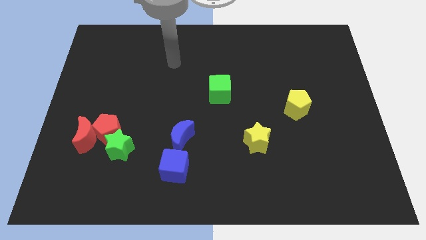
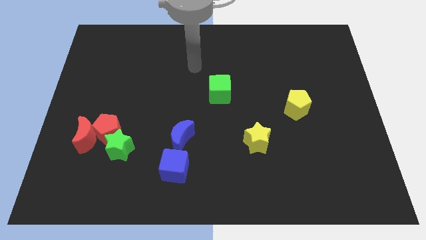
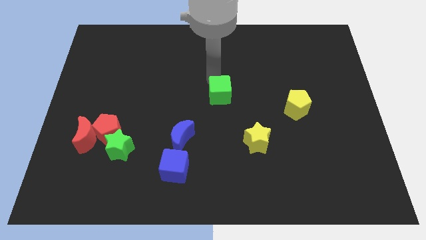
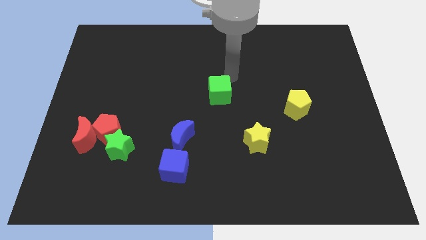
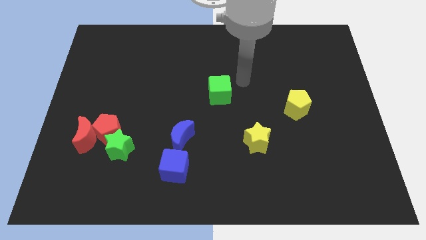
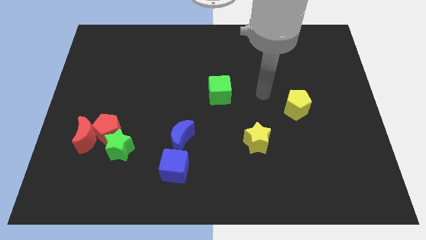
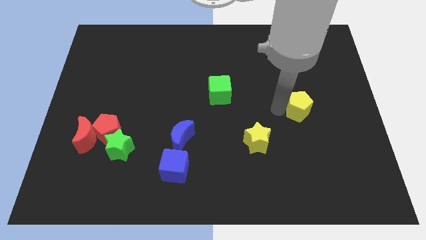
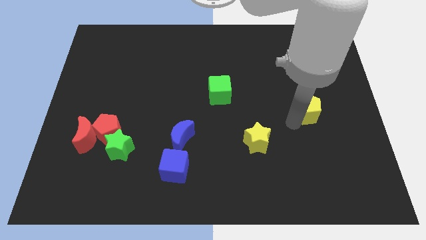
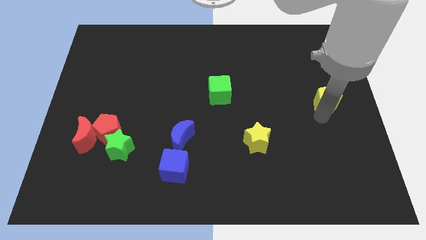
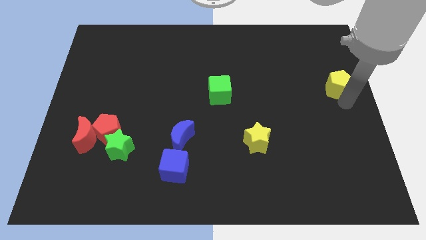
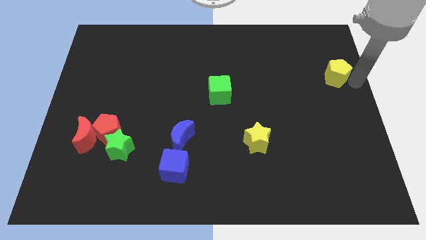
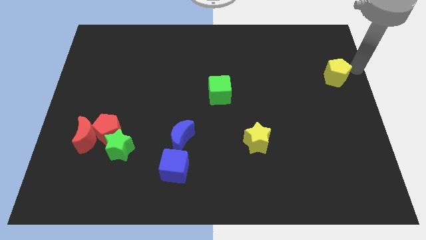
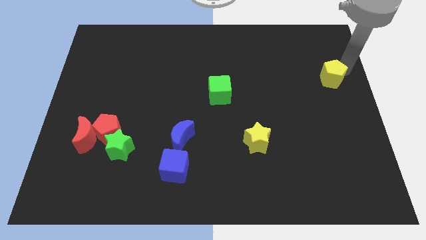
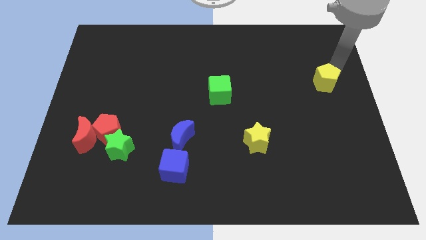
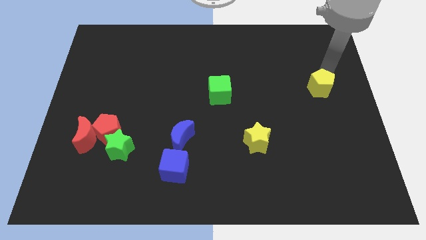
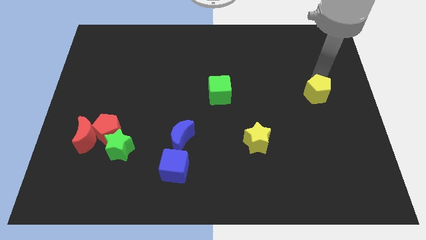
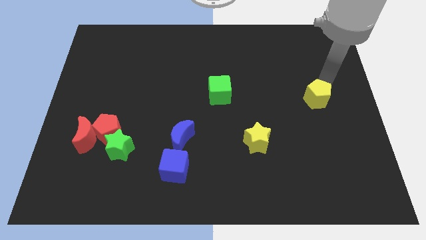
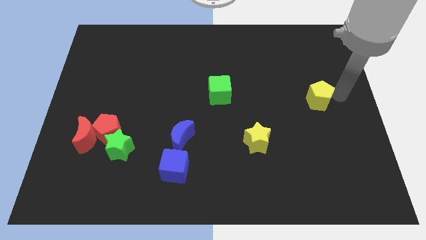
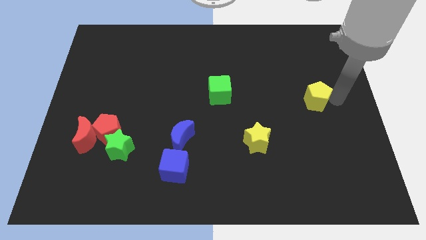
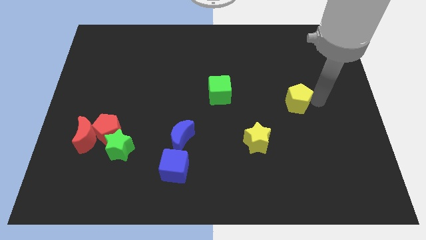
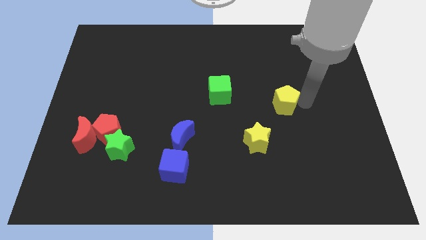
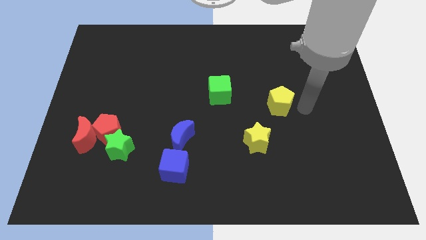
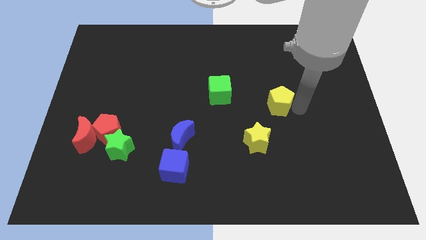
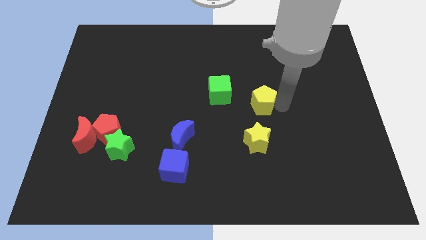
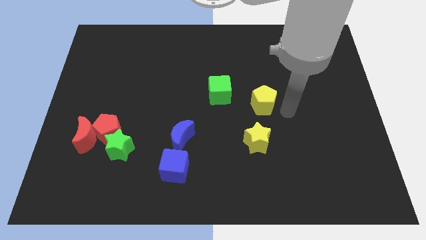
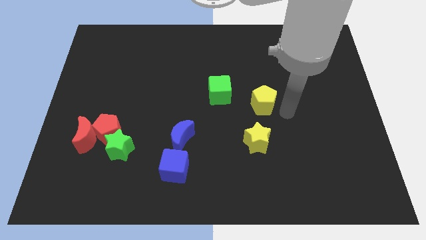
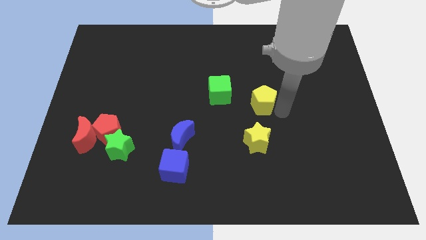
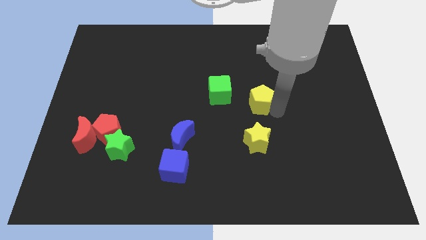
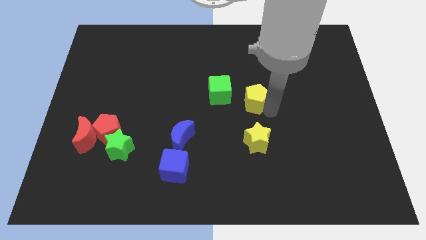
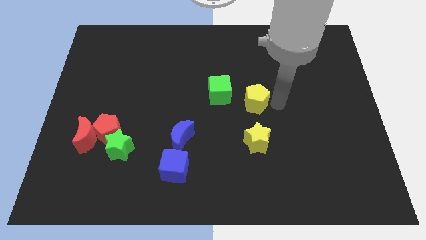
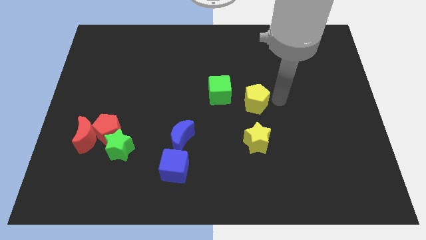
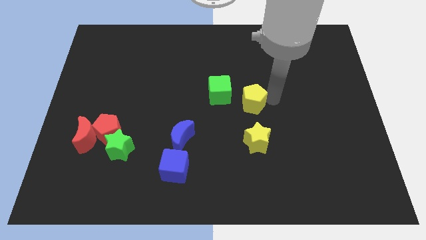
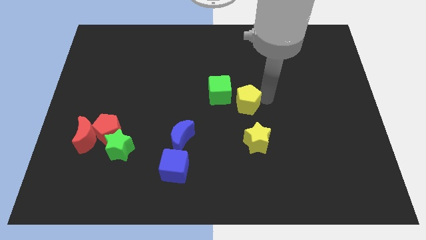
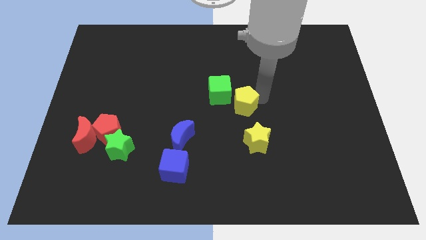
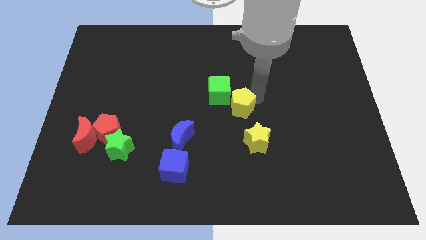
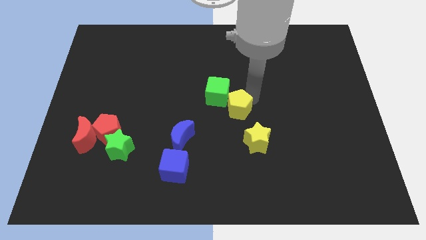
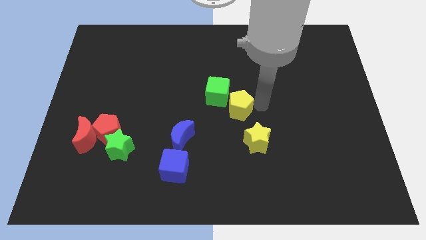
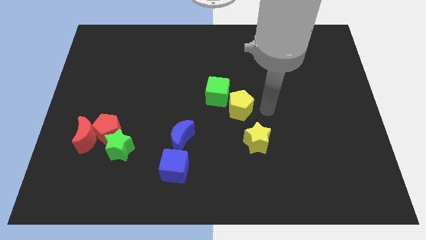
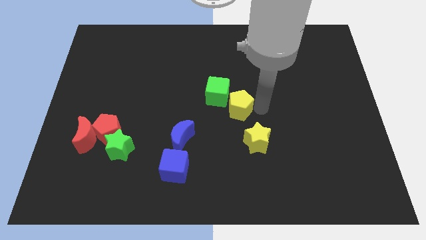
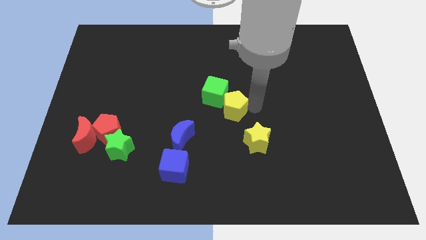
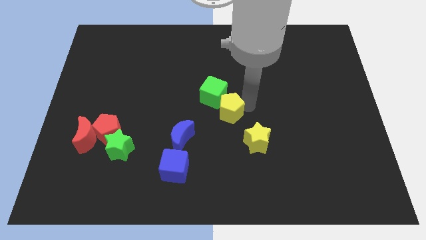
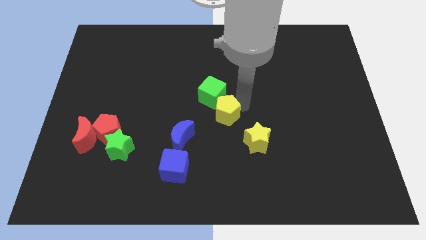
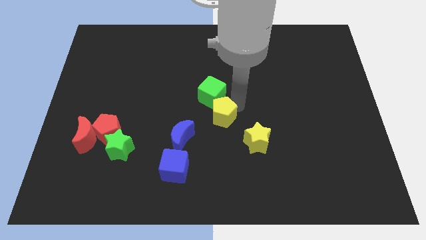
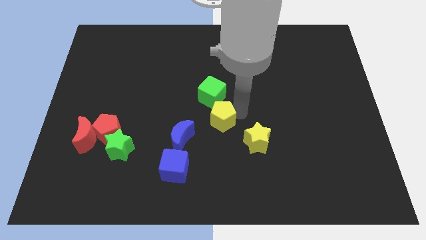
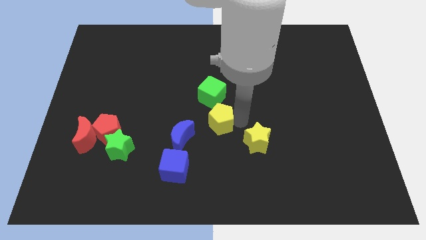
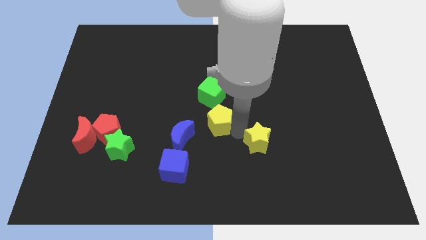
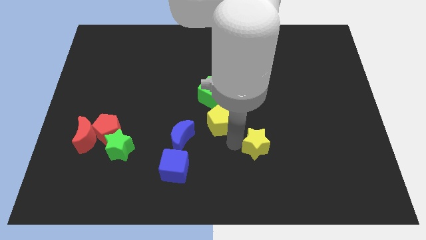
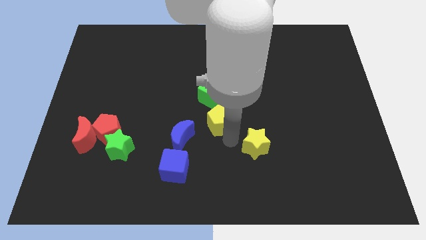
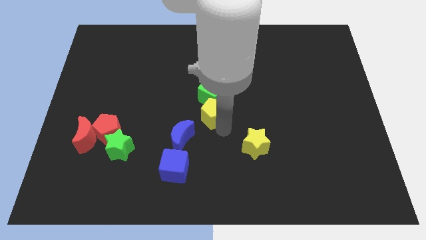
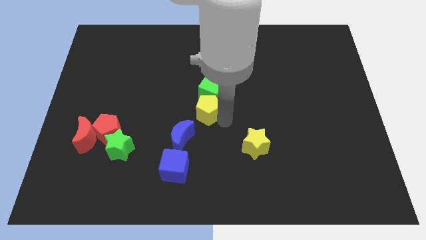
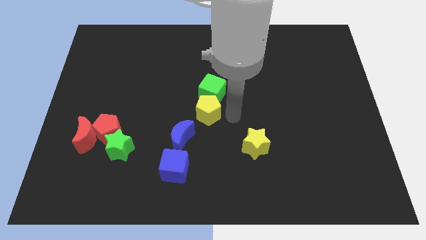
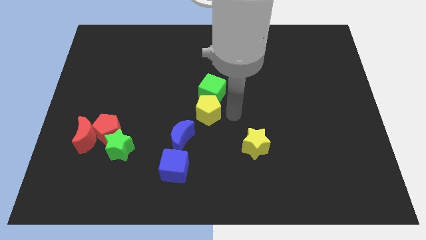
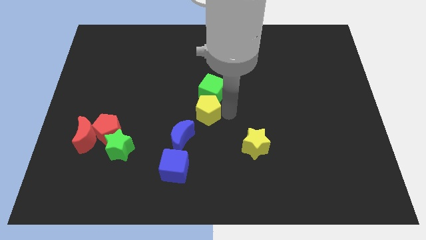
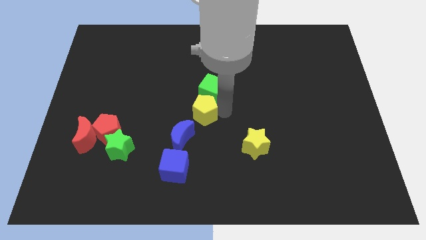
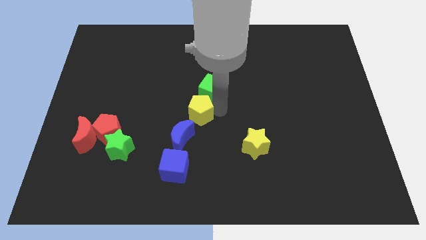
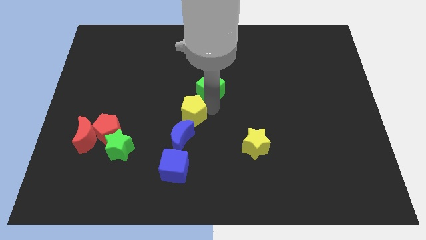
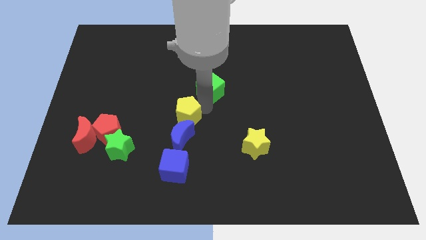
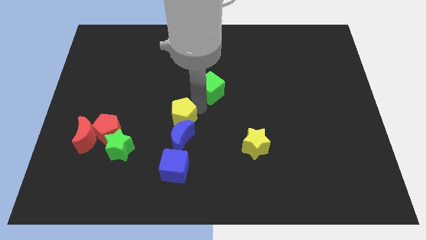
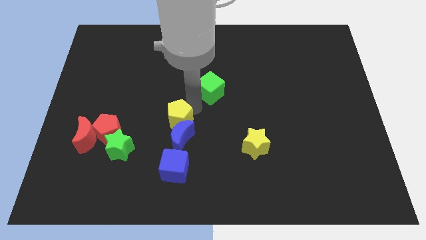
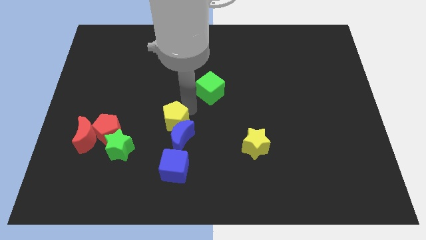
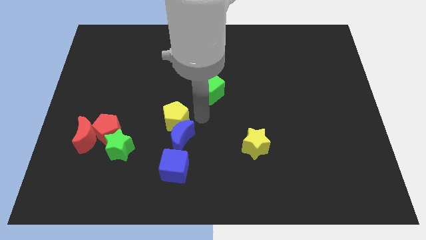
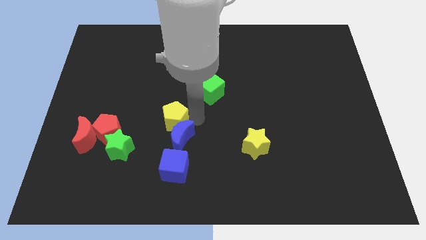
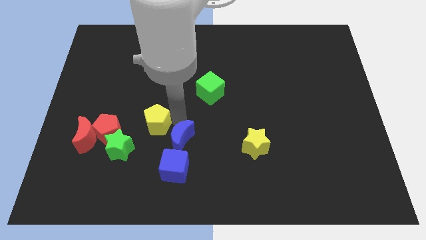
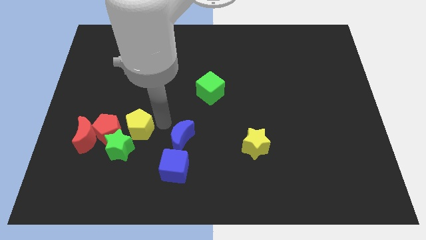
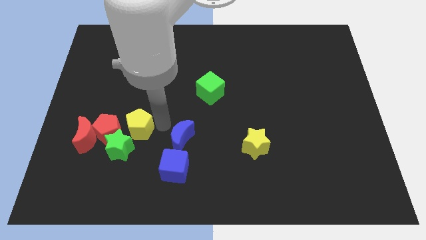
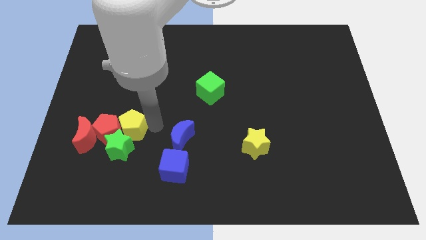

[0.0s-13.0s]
push the yellow pentagon next to the red pentagon

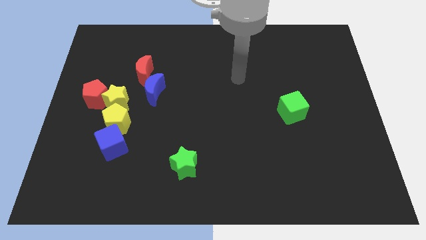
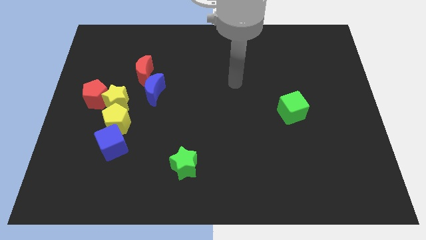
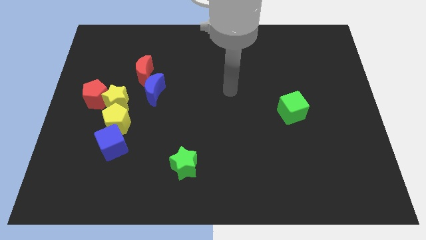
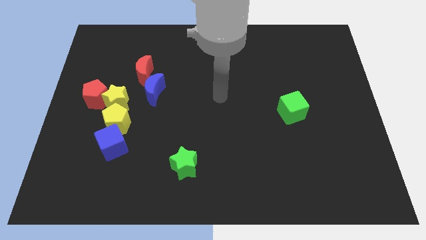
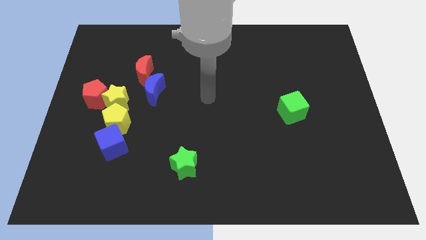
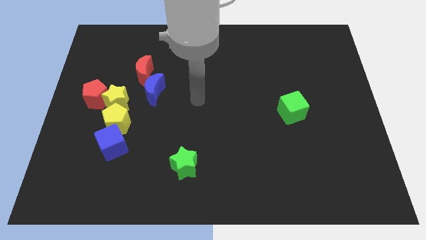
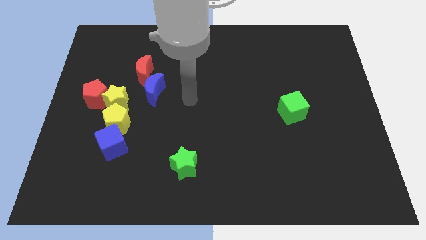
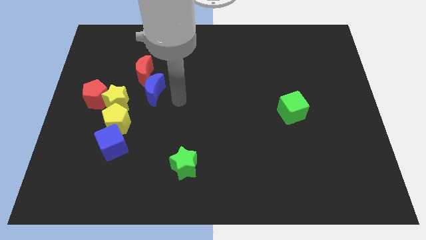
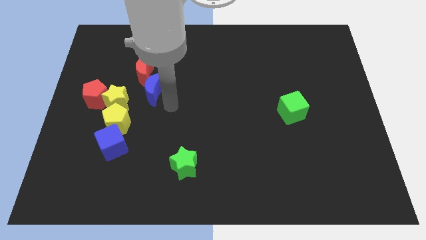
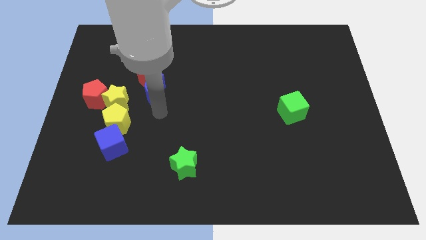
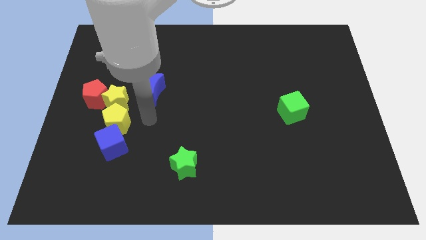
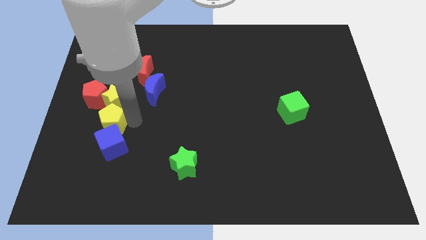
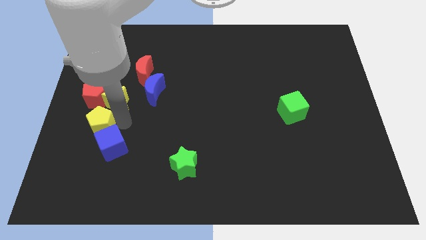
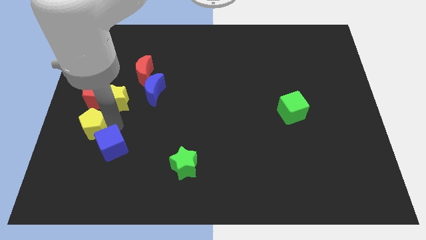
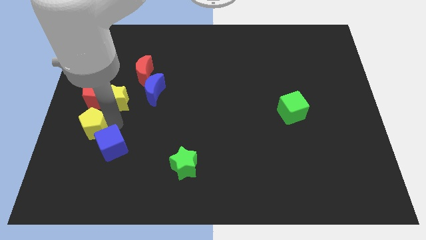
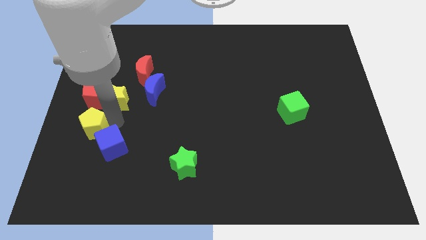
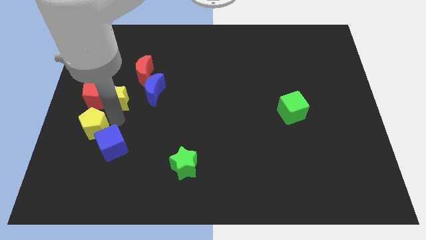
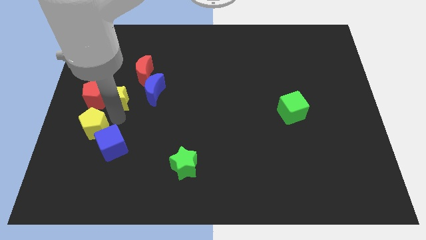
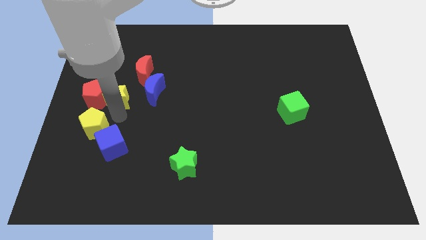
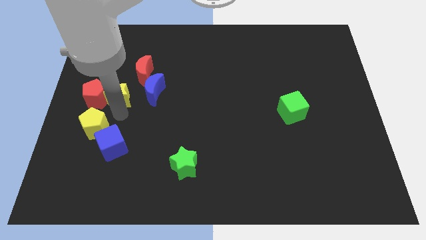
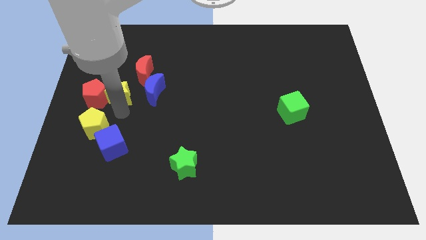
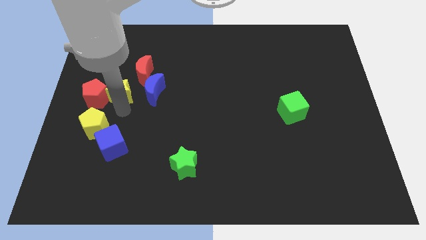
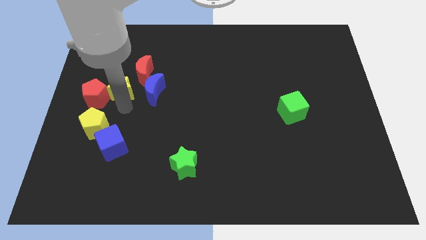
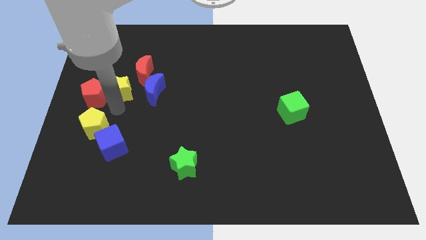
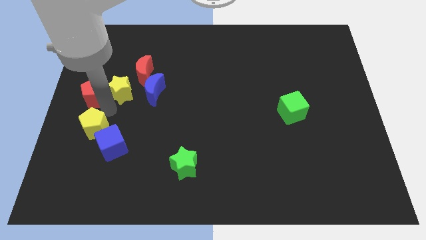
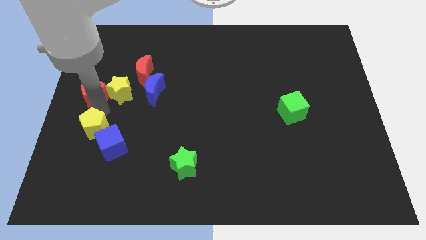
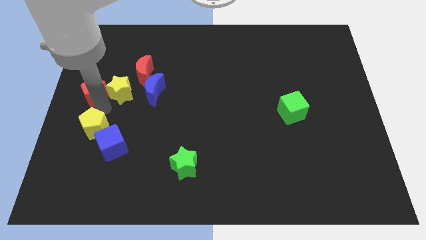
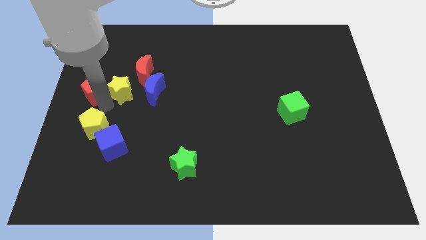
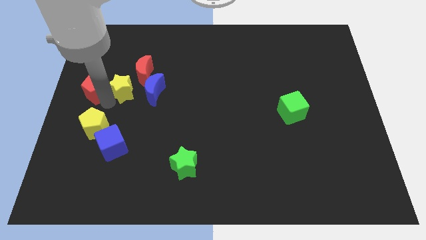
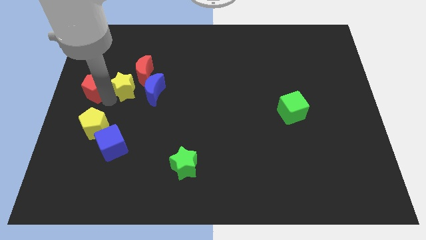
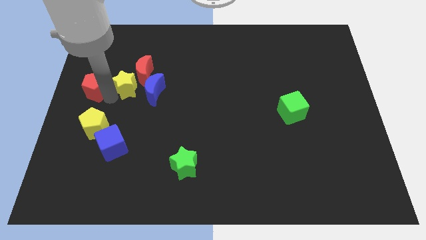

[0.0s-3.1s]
push the yellow star towards the red moon
